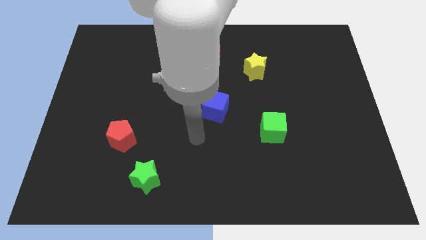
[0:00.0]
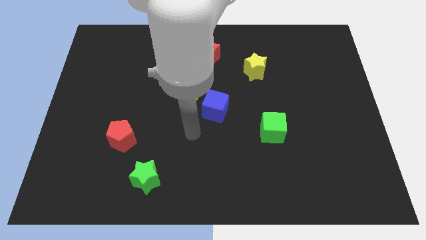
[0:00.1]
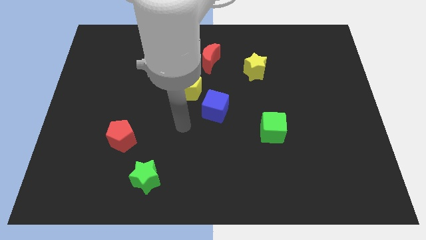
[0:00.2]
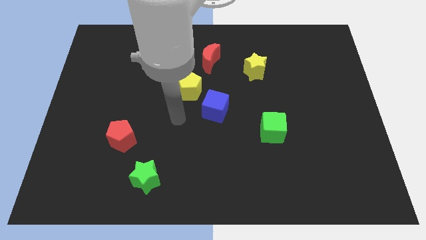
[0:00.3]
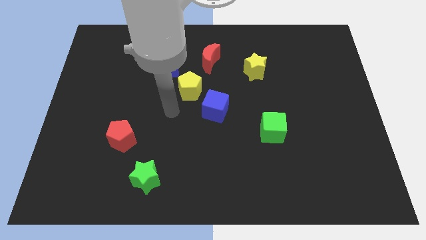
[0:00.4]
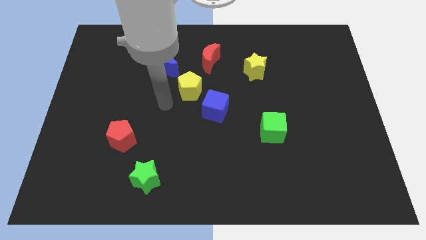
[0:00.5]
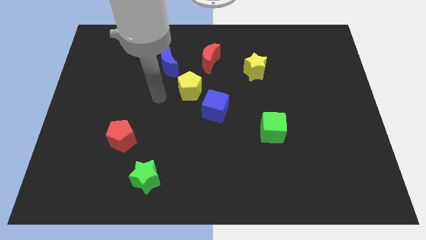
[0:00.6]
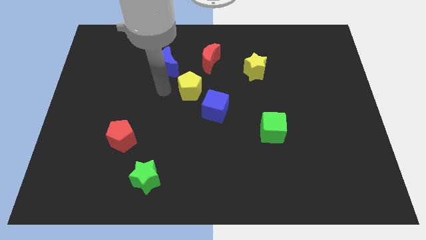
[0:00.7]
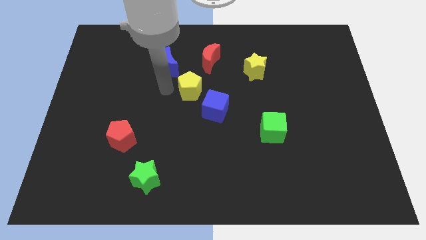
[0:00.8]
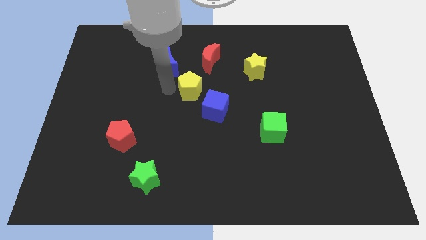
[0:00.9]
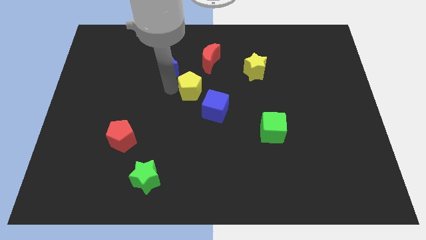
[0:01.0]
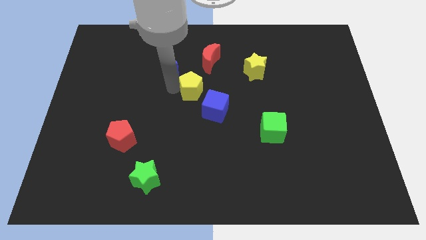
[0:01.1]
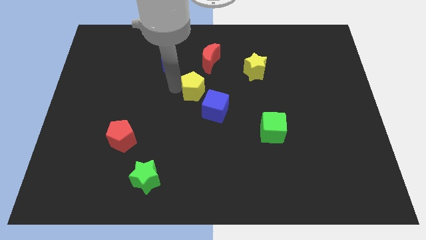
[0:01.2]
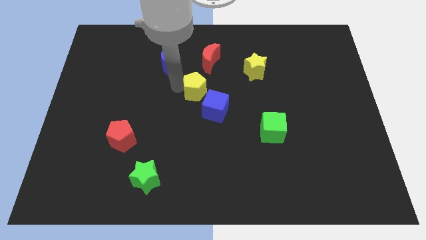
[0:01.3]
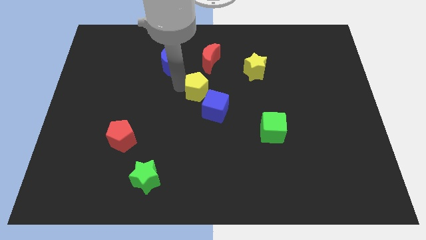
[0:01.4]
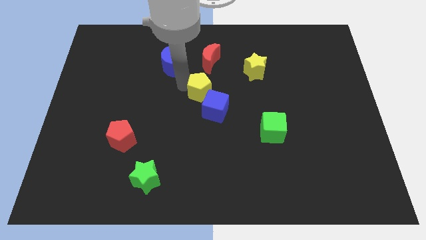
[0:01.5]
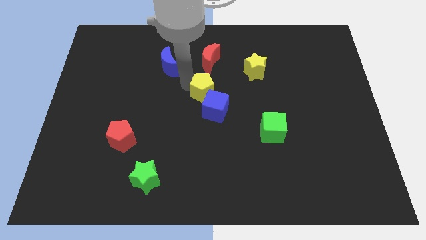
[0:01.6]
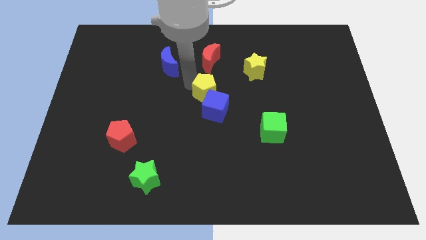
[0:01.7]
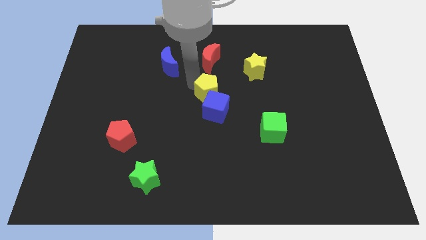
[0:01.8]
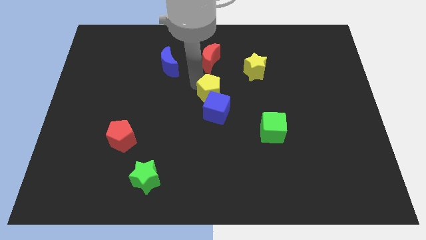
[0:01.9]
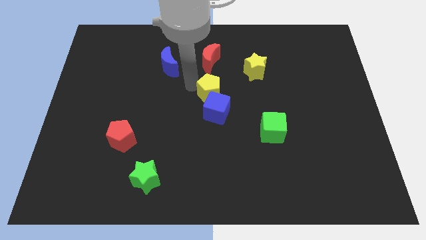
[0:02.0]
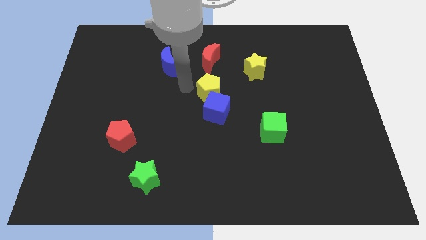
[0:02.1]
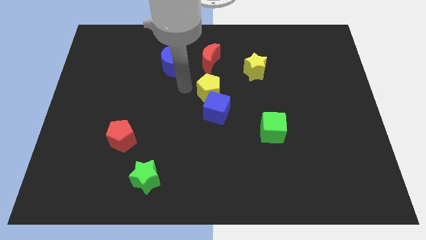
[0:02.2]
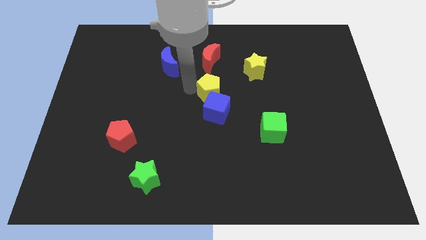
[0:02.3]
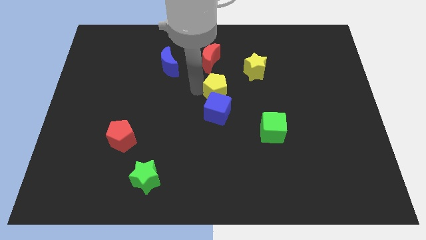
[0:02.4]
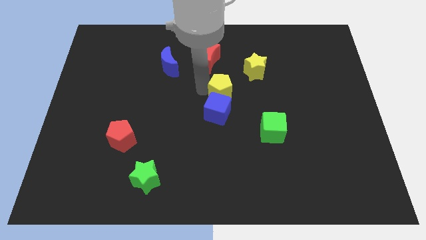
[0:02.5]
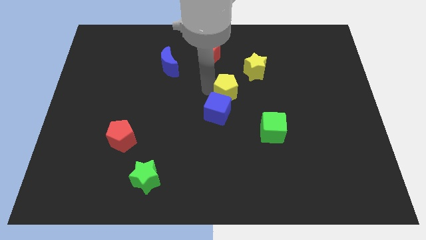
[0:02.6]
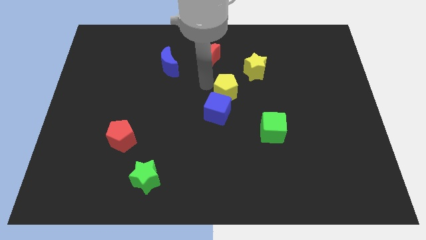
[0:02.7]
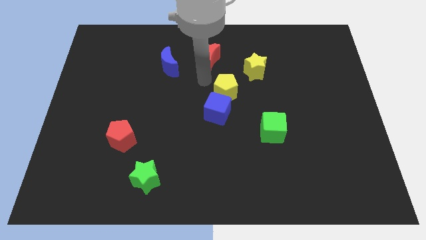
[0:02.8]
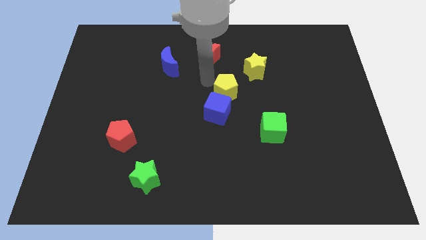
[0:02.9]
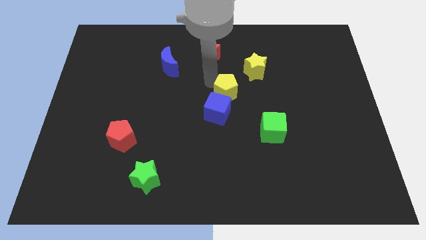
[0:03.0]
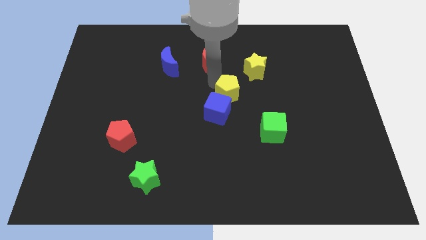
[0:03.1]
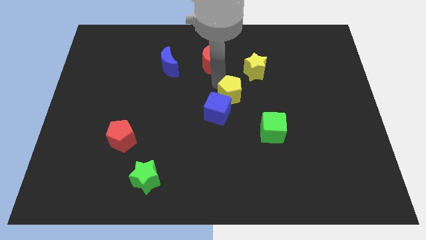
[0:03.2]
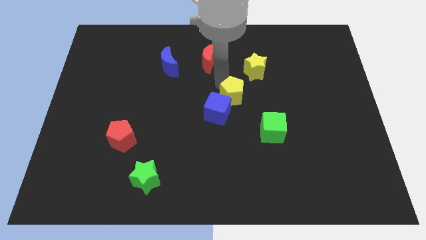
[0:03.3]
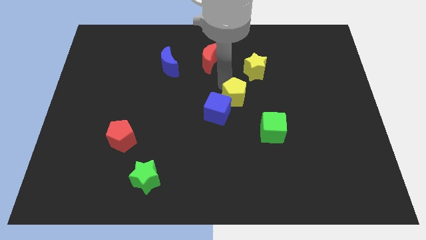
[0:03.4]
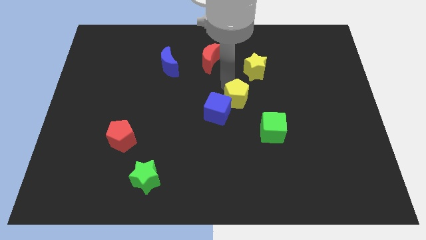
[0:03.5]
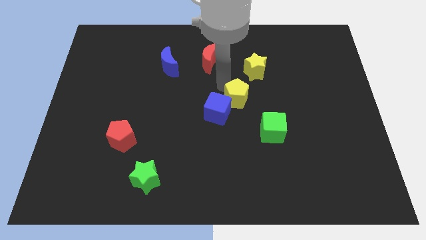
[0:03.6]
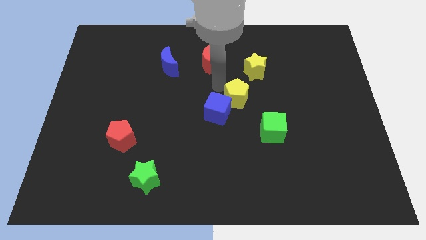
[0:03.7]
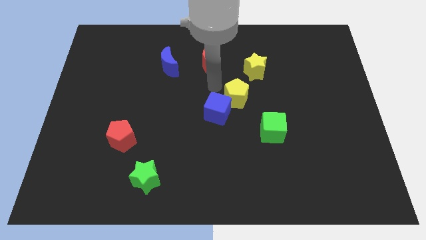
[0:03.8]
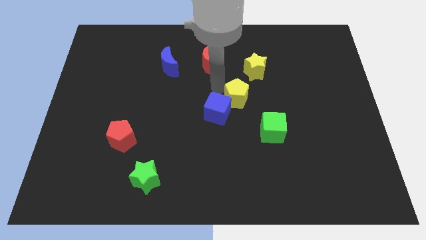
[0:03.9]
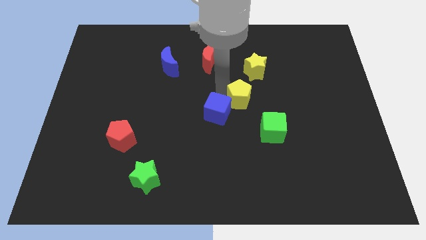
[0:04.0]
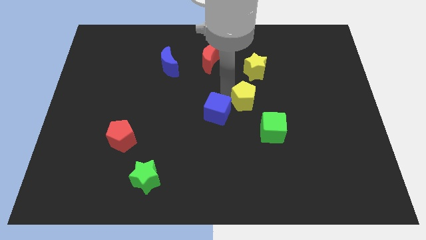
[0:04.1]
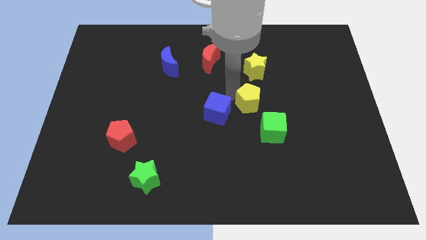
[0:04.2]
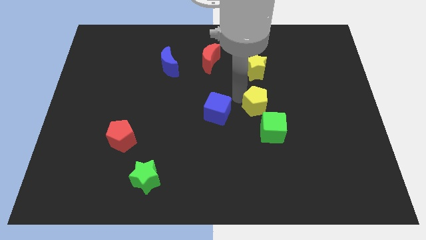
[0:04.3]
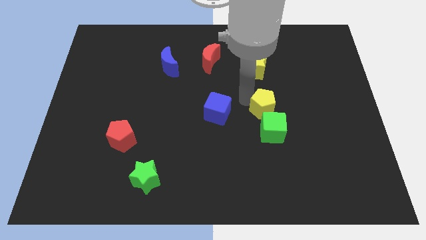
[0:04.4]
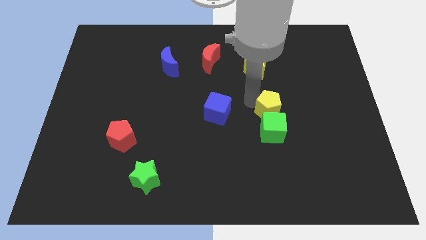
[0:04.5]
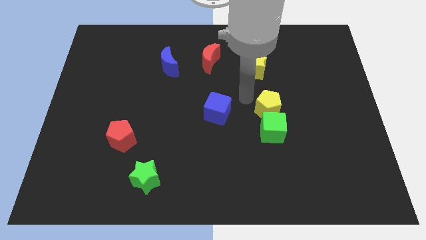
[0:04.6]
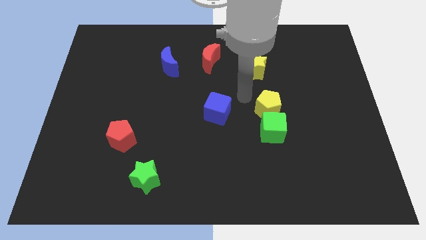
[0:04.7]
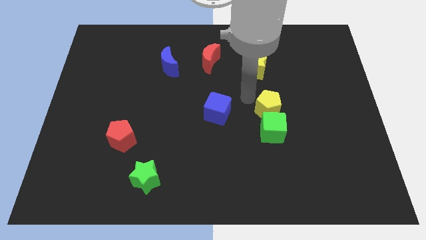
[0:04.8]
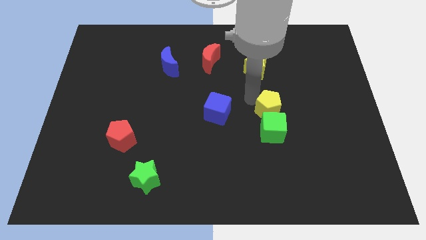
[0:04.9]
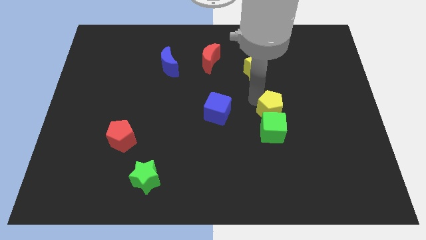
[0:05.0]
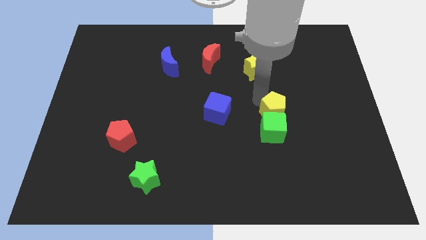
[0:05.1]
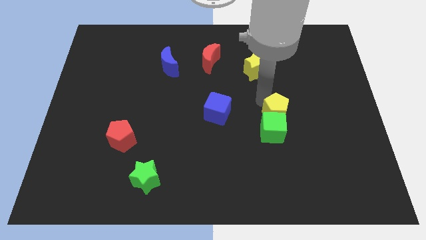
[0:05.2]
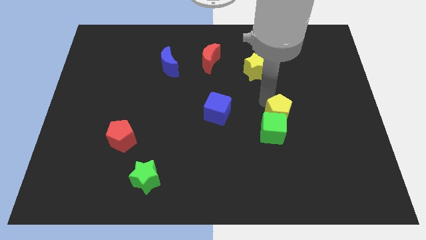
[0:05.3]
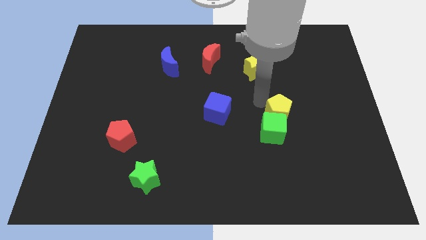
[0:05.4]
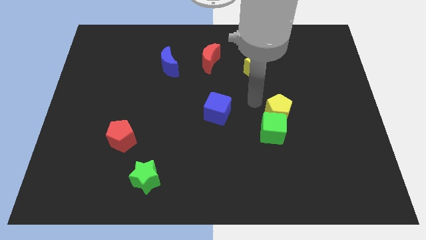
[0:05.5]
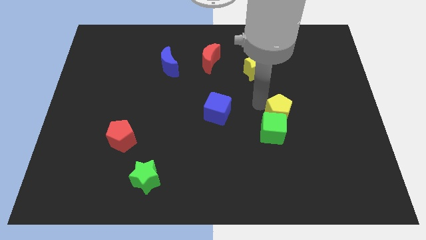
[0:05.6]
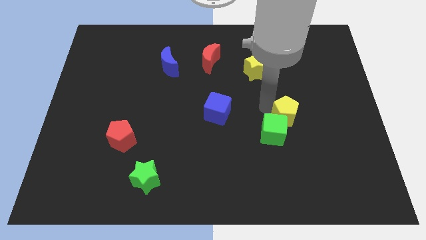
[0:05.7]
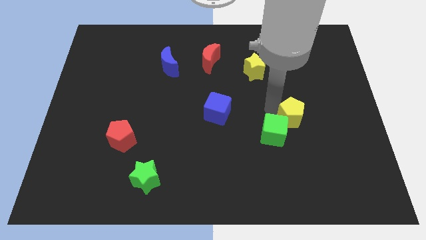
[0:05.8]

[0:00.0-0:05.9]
push the yellow pentagon right of the green cube

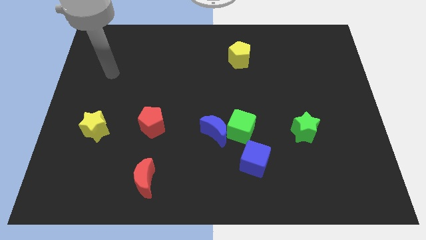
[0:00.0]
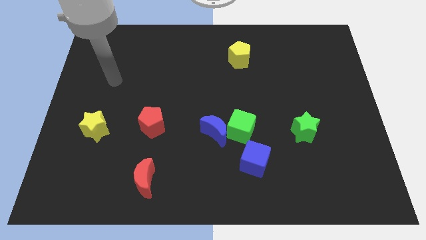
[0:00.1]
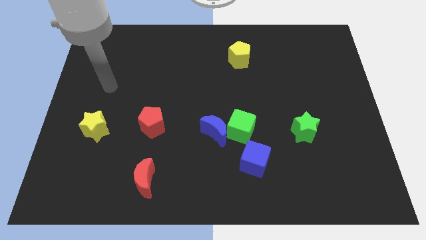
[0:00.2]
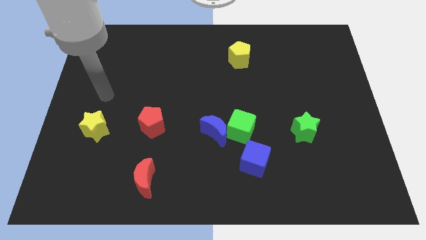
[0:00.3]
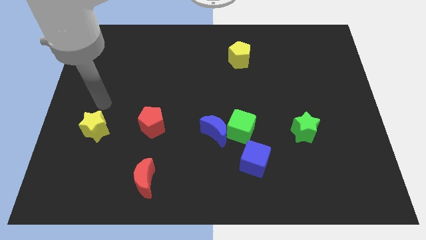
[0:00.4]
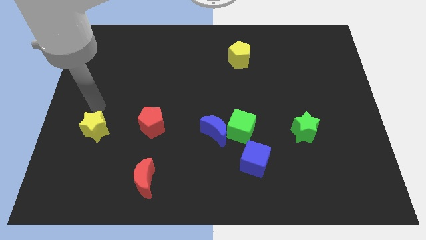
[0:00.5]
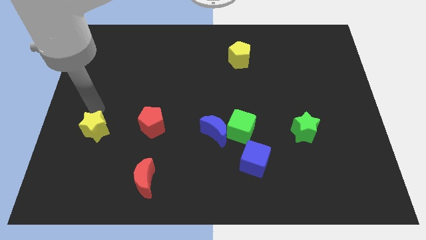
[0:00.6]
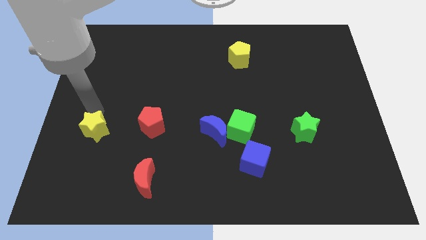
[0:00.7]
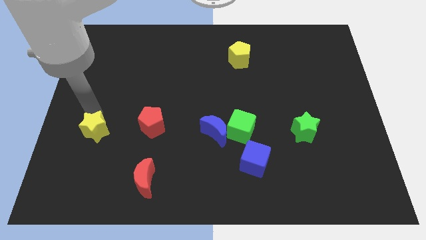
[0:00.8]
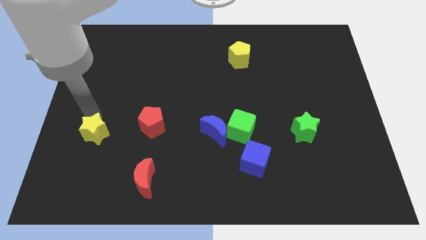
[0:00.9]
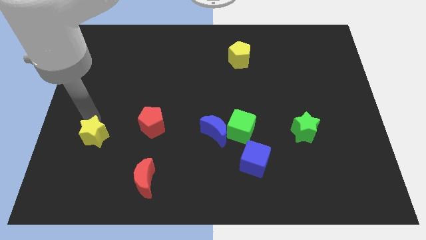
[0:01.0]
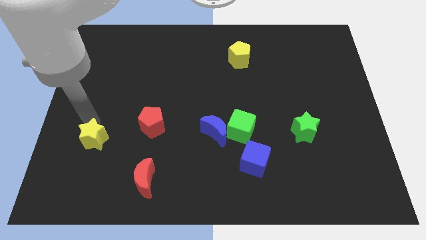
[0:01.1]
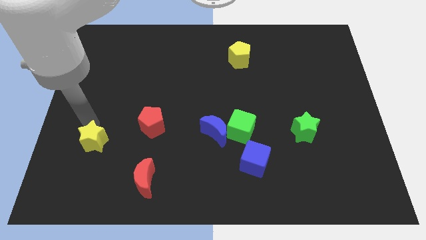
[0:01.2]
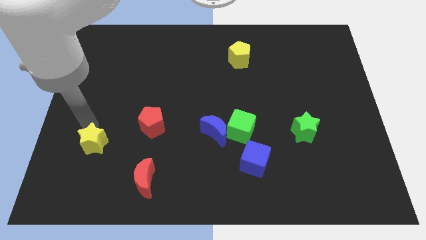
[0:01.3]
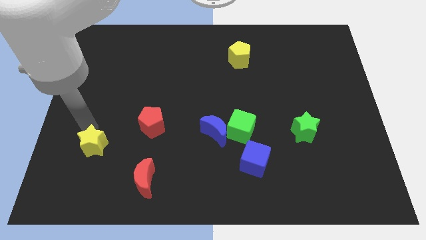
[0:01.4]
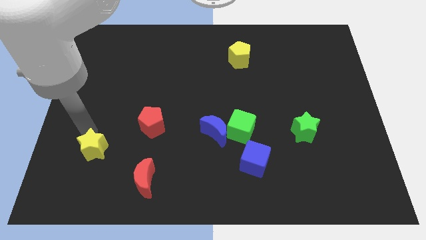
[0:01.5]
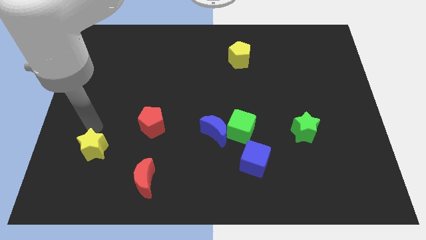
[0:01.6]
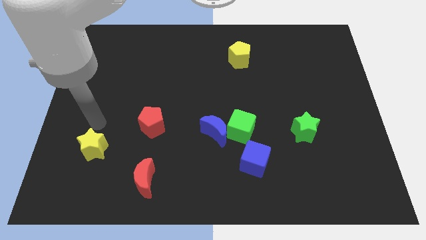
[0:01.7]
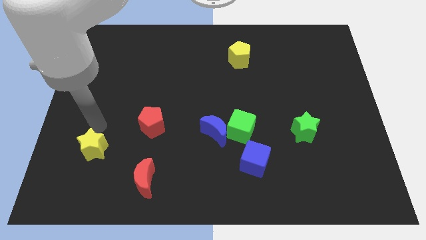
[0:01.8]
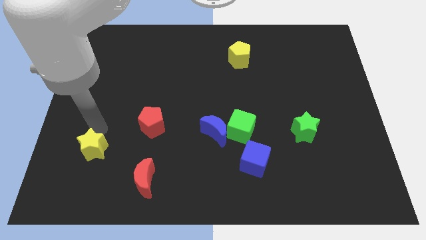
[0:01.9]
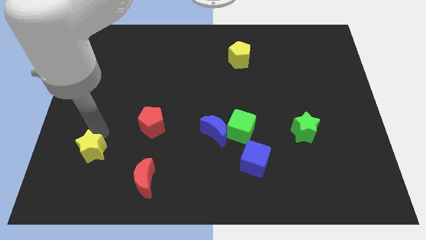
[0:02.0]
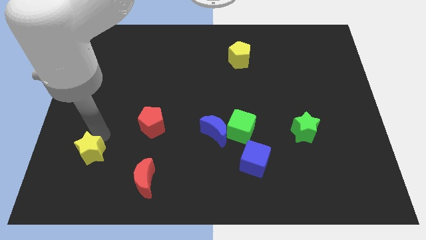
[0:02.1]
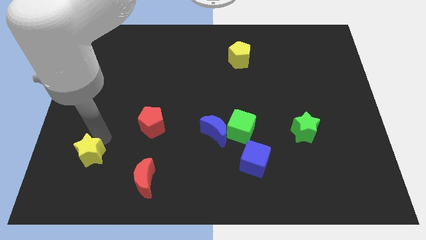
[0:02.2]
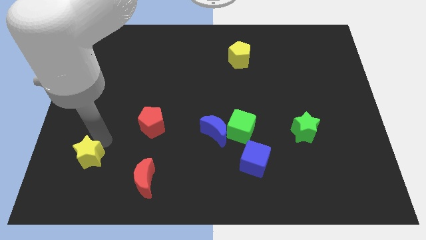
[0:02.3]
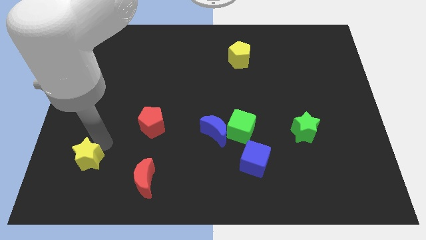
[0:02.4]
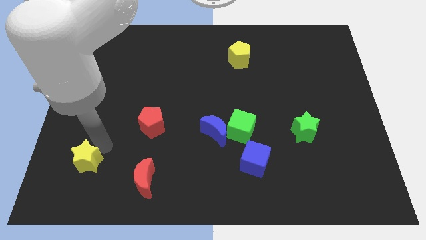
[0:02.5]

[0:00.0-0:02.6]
push the yellow star to the left of the red moon
